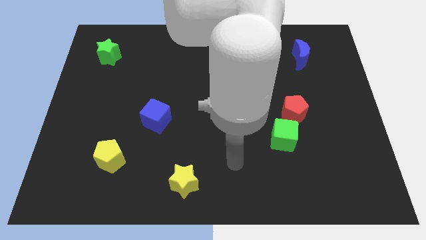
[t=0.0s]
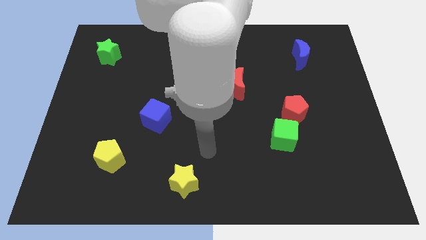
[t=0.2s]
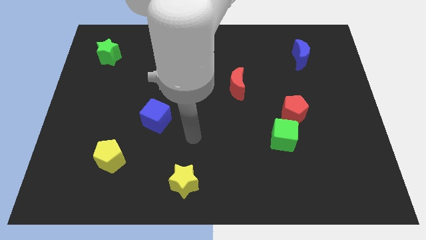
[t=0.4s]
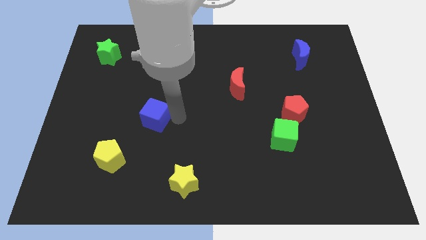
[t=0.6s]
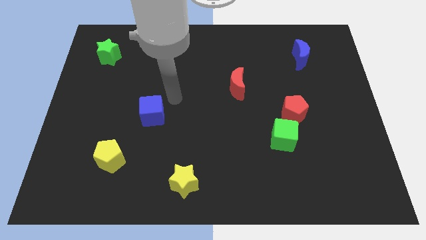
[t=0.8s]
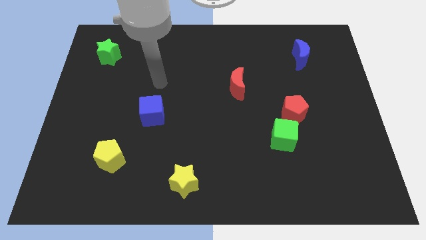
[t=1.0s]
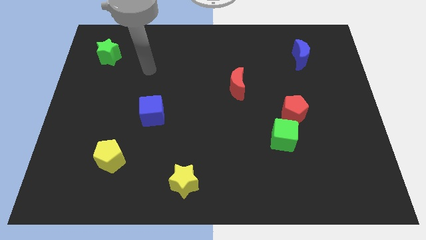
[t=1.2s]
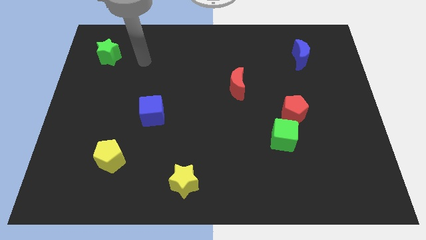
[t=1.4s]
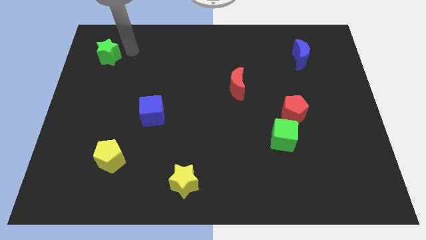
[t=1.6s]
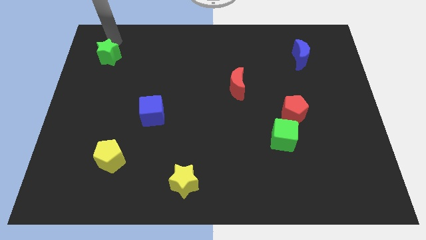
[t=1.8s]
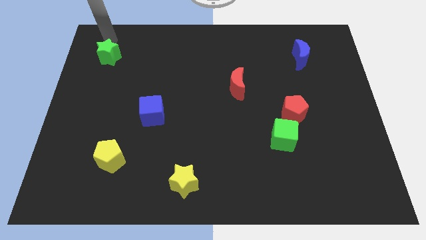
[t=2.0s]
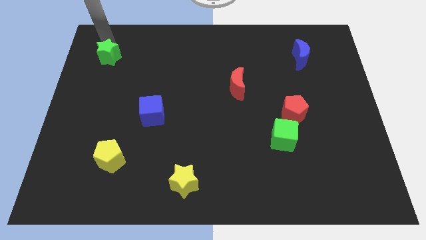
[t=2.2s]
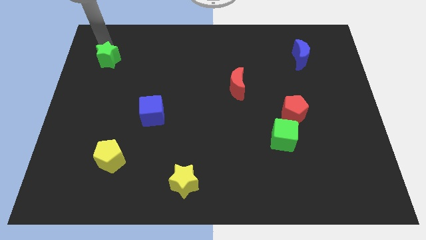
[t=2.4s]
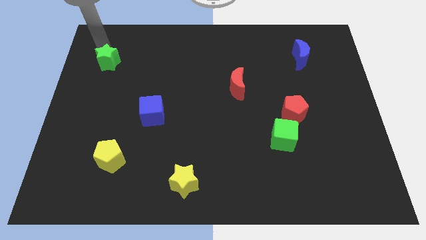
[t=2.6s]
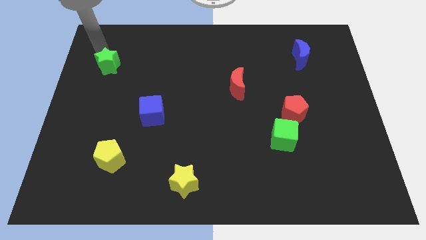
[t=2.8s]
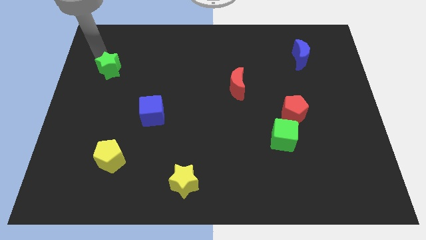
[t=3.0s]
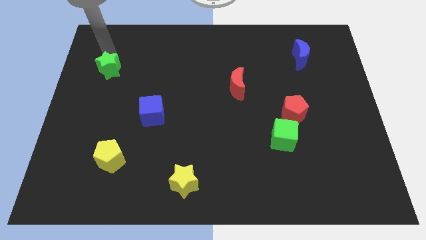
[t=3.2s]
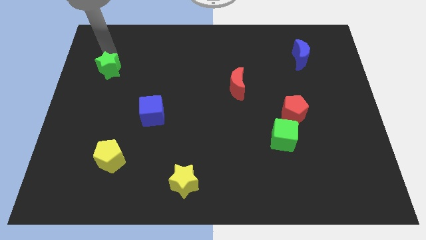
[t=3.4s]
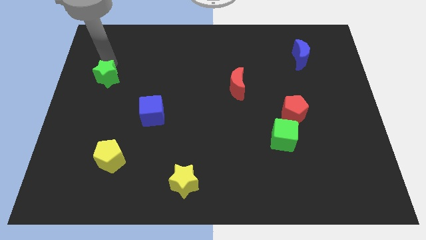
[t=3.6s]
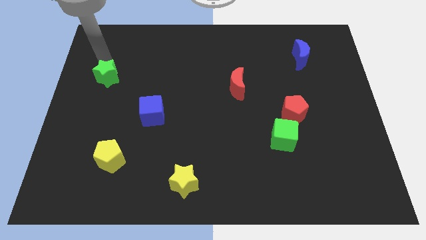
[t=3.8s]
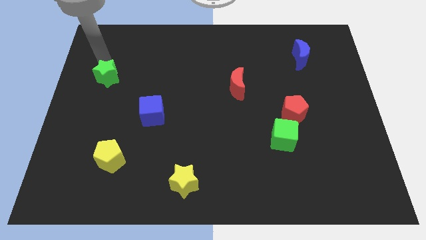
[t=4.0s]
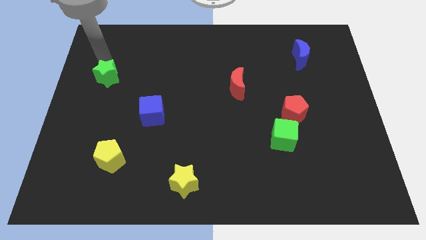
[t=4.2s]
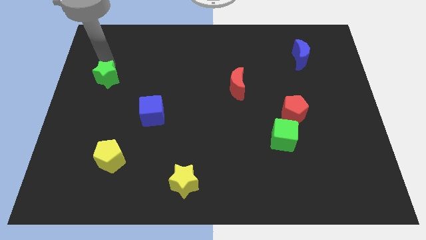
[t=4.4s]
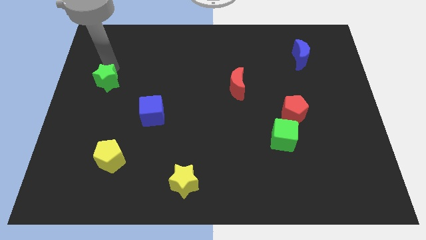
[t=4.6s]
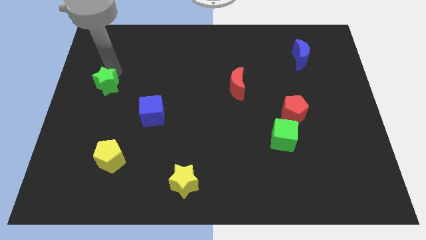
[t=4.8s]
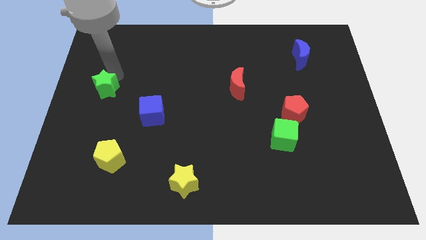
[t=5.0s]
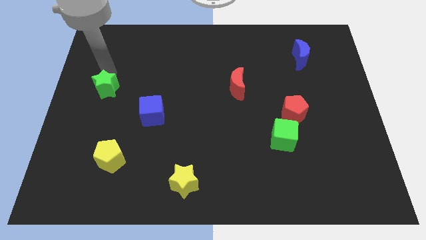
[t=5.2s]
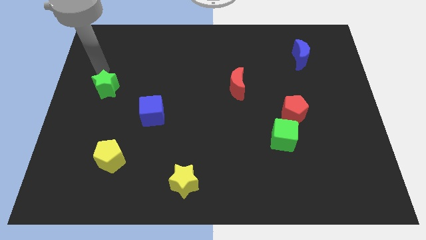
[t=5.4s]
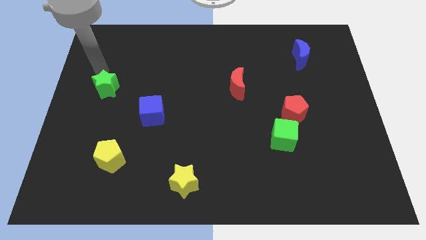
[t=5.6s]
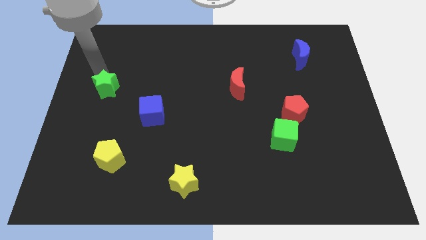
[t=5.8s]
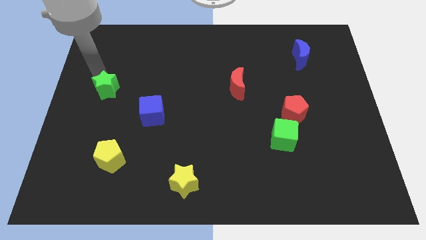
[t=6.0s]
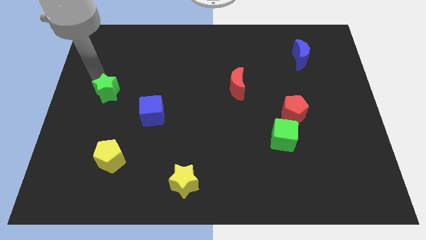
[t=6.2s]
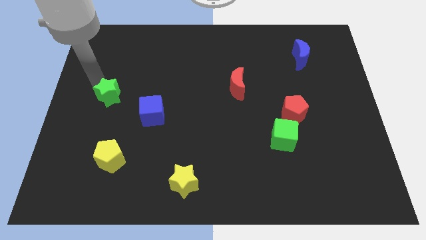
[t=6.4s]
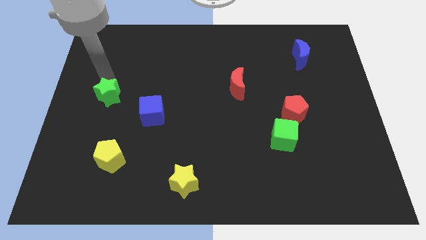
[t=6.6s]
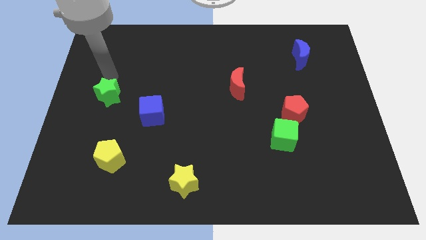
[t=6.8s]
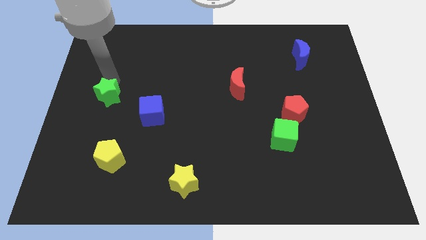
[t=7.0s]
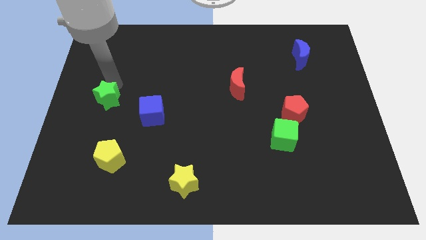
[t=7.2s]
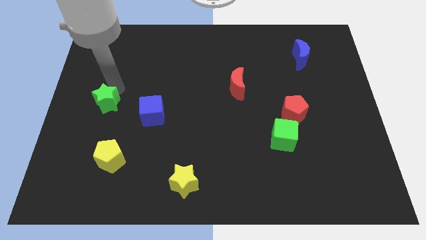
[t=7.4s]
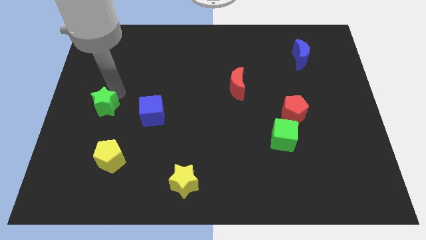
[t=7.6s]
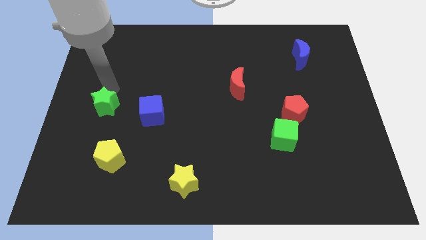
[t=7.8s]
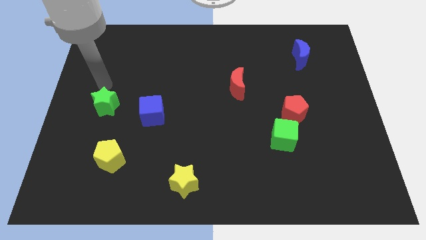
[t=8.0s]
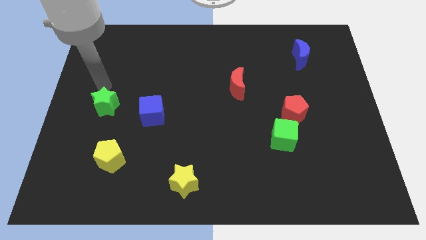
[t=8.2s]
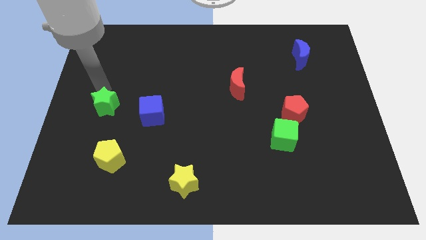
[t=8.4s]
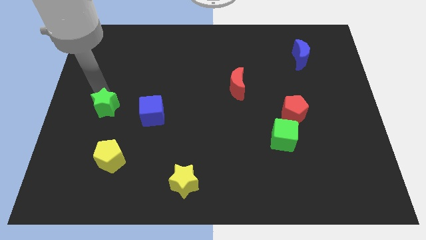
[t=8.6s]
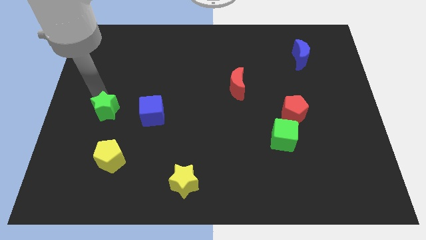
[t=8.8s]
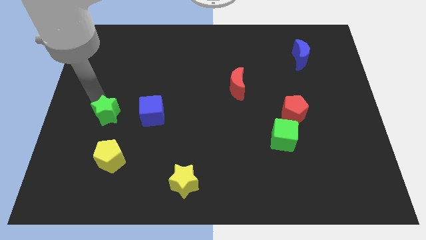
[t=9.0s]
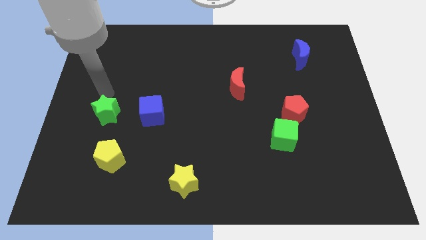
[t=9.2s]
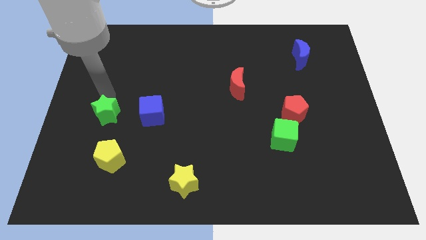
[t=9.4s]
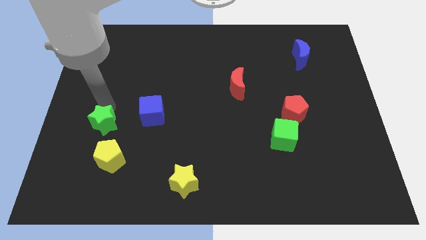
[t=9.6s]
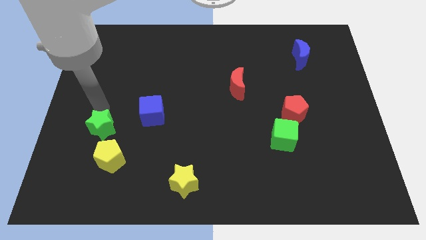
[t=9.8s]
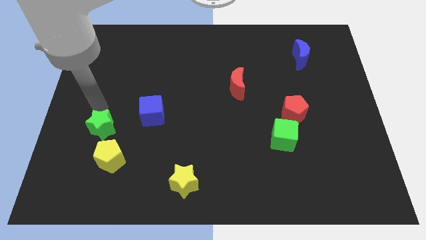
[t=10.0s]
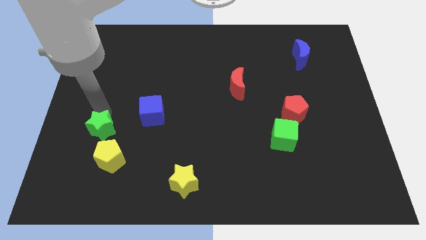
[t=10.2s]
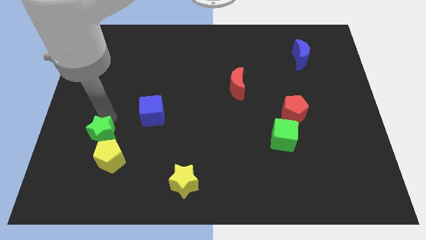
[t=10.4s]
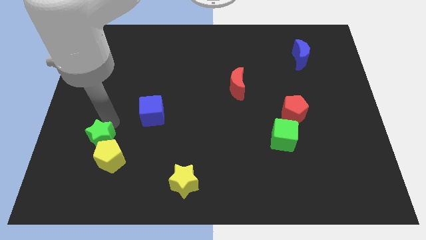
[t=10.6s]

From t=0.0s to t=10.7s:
push the green star to the yellow pentagon
